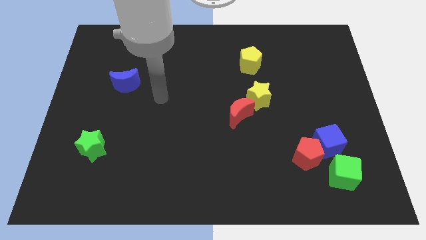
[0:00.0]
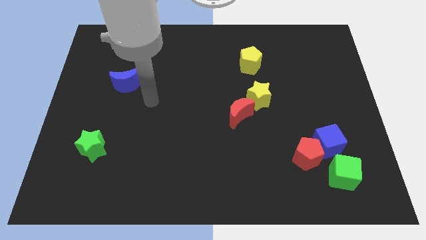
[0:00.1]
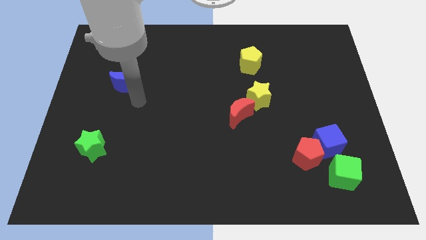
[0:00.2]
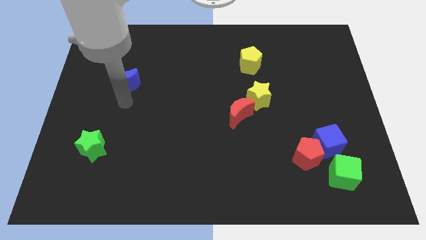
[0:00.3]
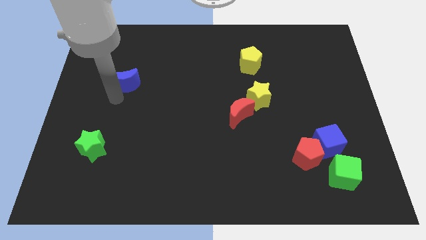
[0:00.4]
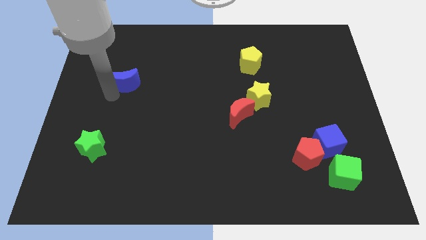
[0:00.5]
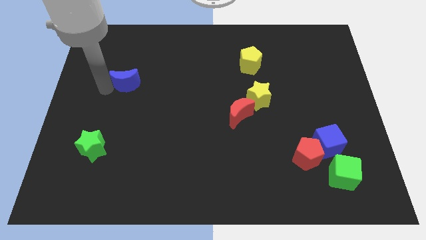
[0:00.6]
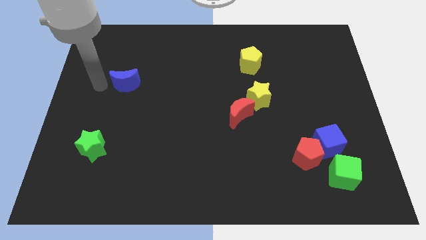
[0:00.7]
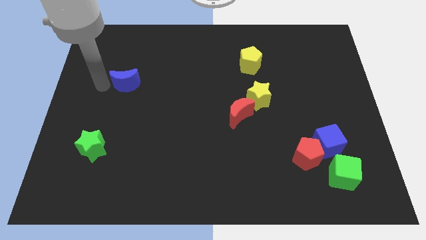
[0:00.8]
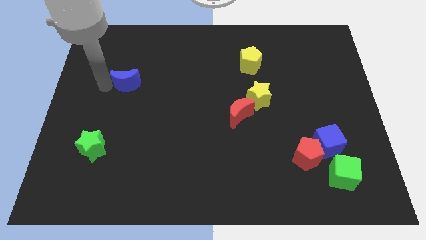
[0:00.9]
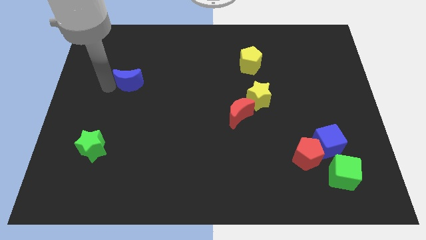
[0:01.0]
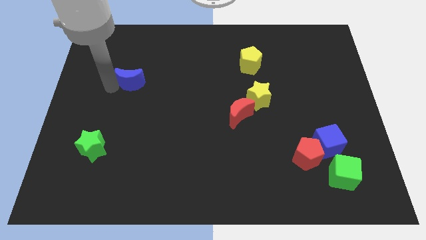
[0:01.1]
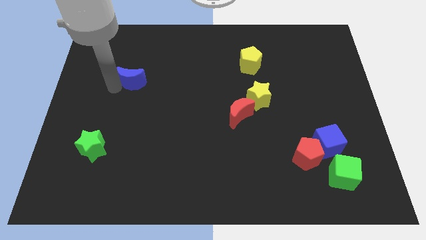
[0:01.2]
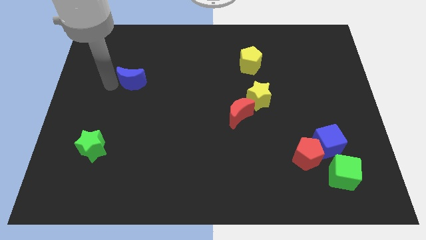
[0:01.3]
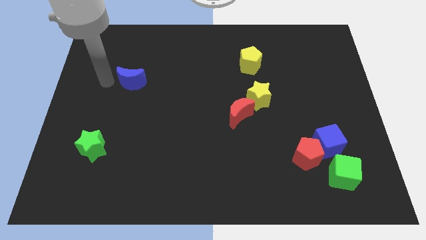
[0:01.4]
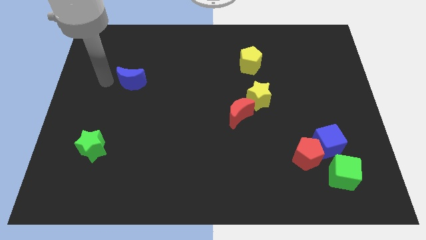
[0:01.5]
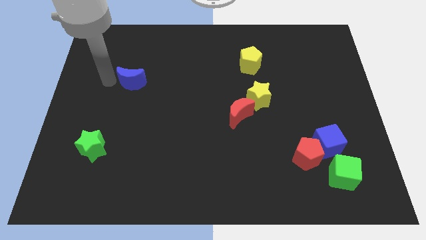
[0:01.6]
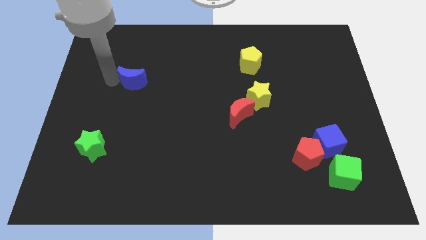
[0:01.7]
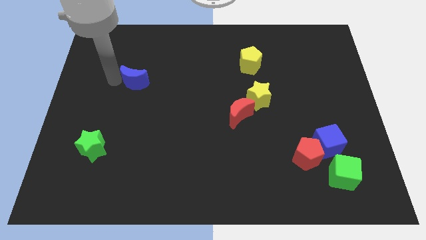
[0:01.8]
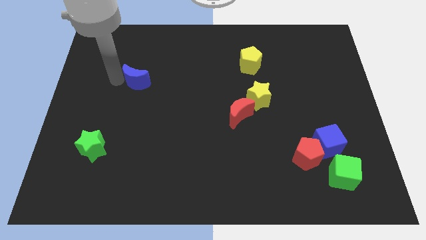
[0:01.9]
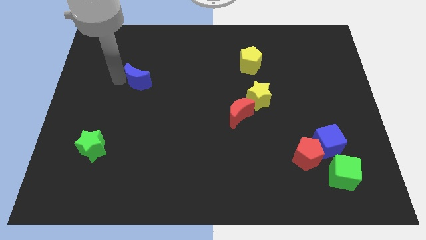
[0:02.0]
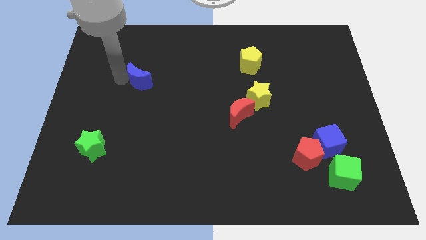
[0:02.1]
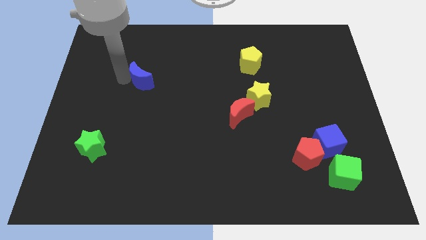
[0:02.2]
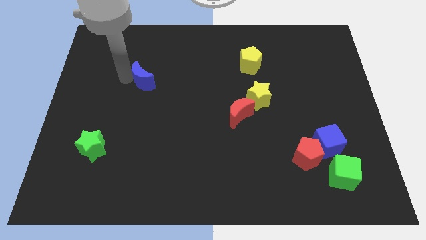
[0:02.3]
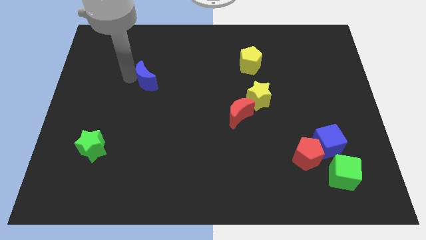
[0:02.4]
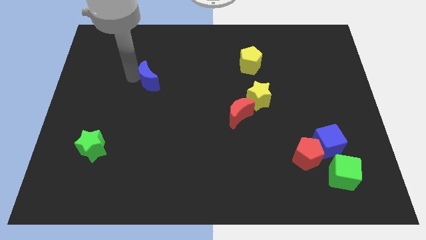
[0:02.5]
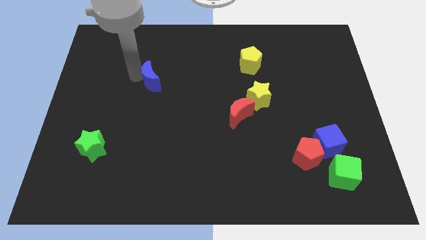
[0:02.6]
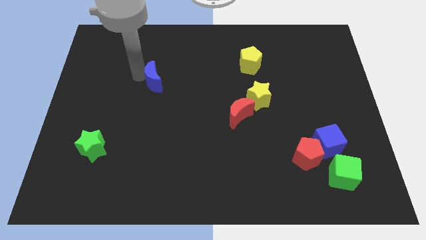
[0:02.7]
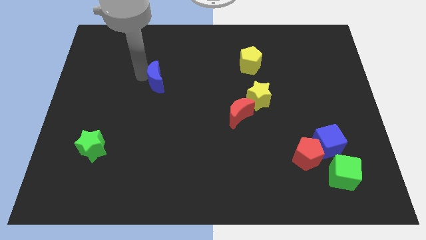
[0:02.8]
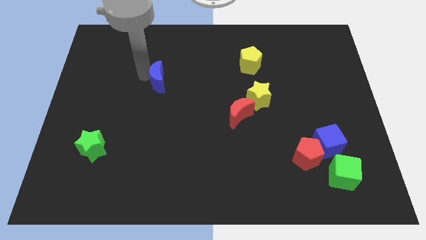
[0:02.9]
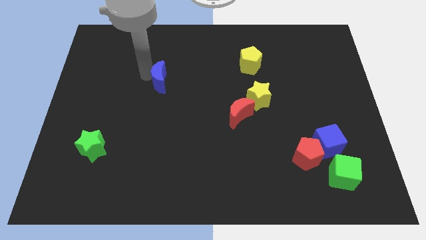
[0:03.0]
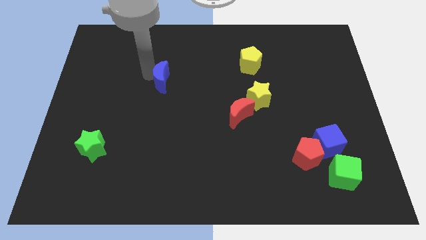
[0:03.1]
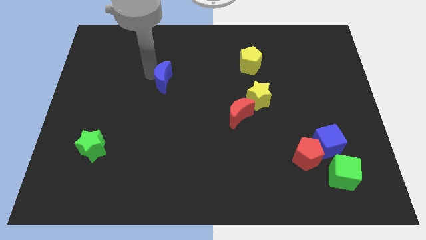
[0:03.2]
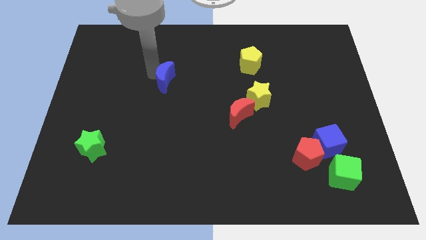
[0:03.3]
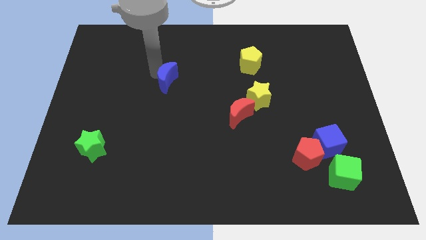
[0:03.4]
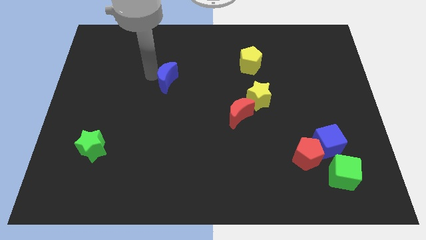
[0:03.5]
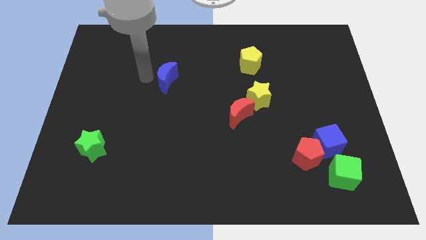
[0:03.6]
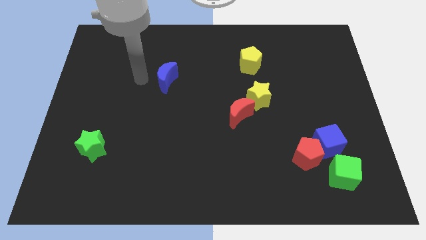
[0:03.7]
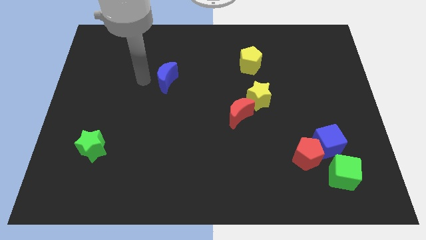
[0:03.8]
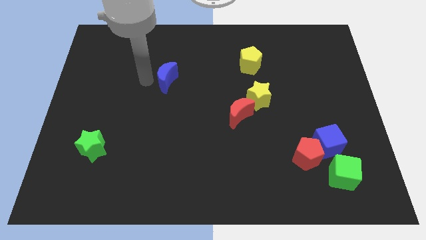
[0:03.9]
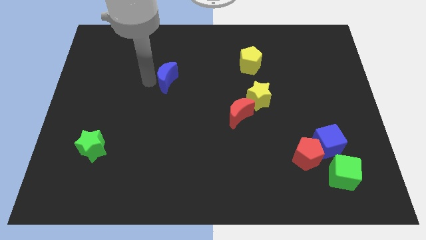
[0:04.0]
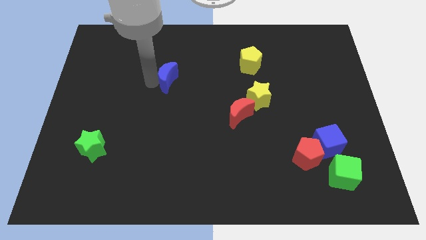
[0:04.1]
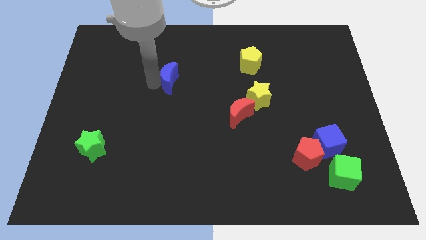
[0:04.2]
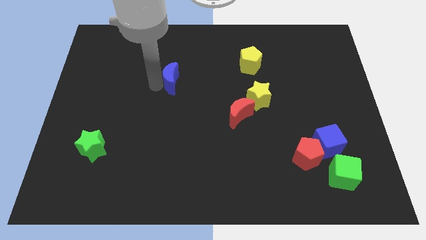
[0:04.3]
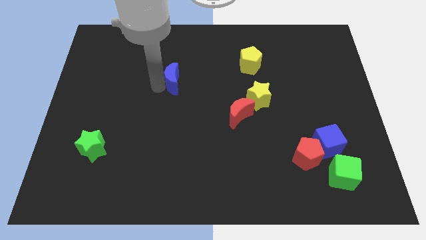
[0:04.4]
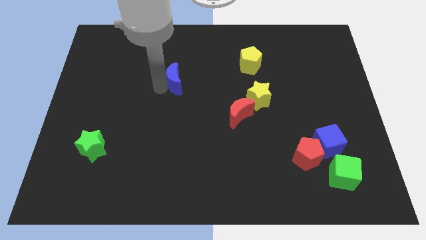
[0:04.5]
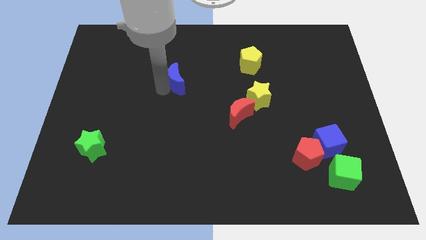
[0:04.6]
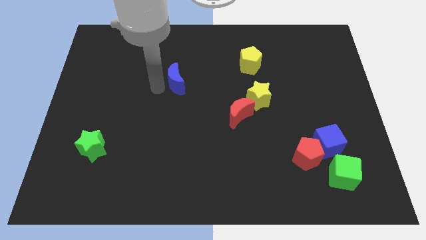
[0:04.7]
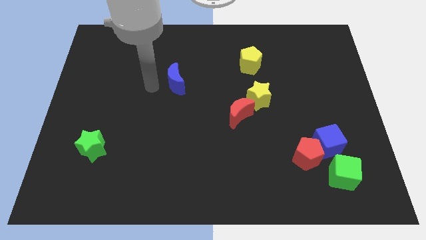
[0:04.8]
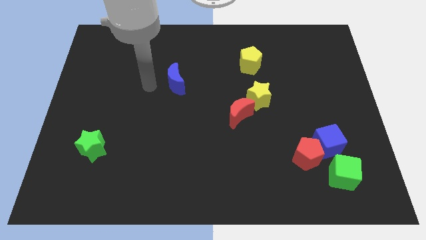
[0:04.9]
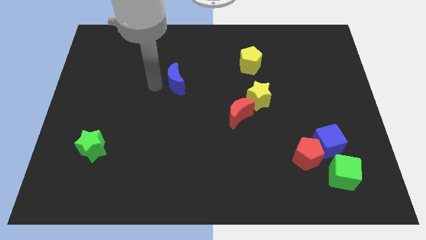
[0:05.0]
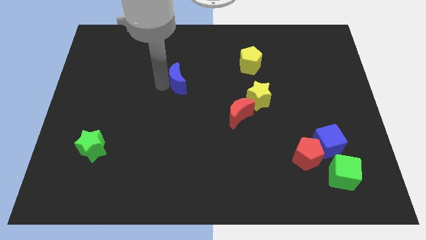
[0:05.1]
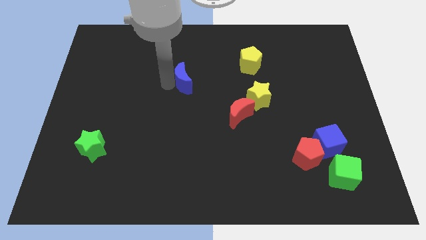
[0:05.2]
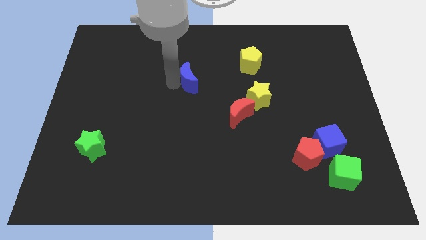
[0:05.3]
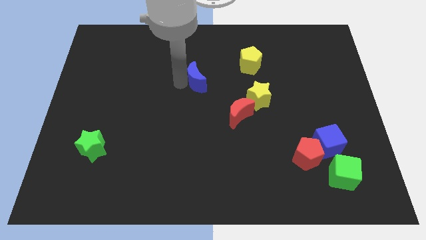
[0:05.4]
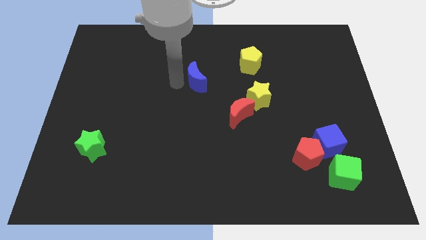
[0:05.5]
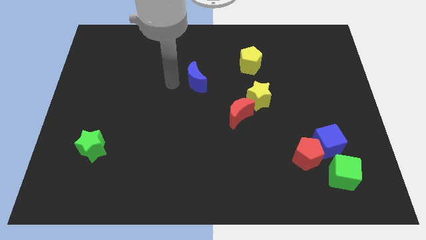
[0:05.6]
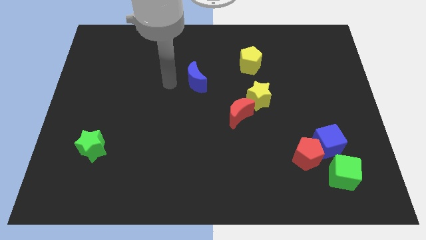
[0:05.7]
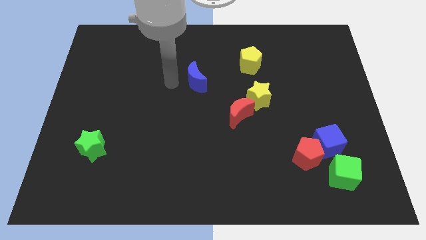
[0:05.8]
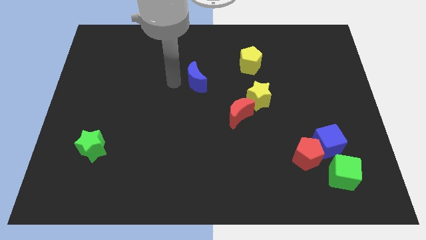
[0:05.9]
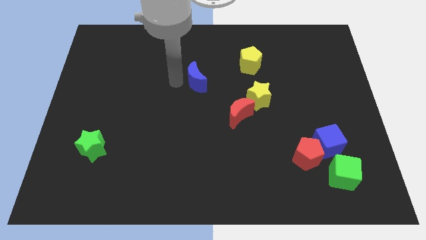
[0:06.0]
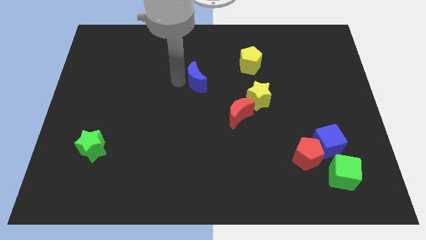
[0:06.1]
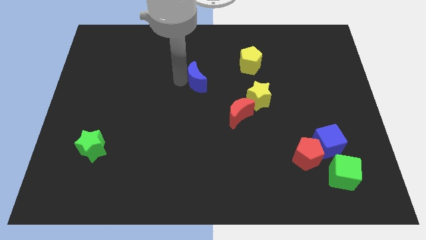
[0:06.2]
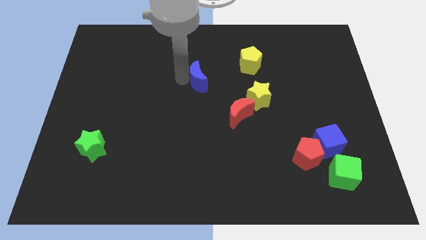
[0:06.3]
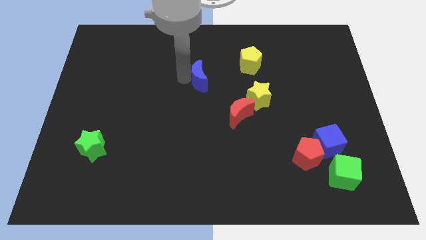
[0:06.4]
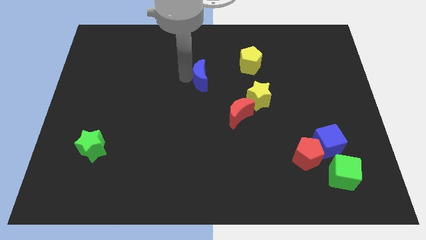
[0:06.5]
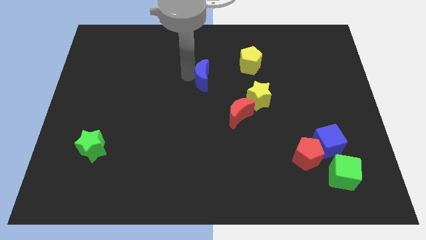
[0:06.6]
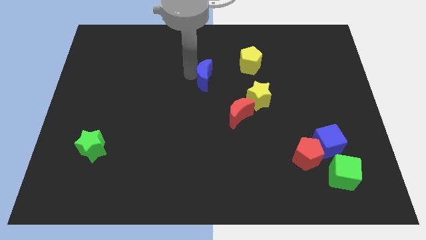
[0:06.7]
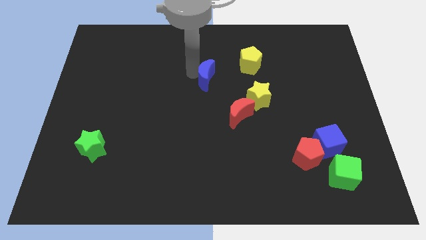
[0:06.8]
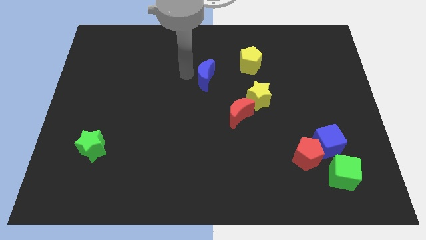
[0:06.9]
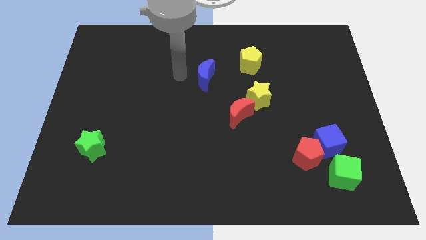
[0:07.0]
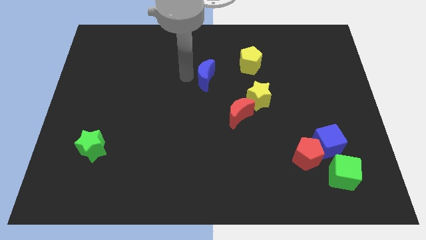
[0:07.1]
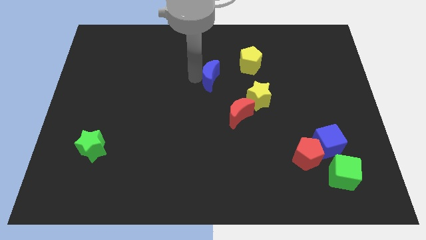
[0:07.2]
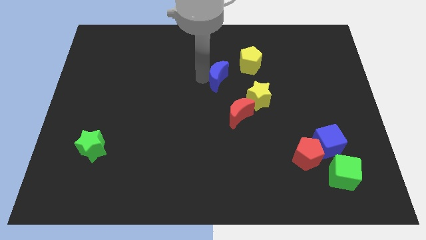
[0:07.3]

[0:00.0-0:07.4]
slide the blue moon to the top of the red moon

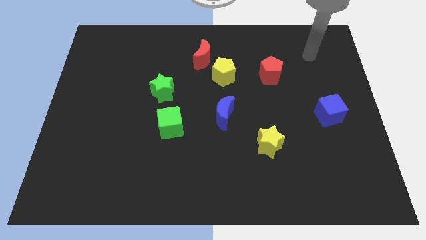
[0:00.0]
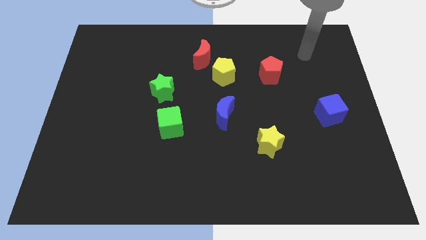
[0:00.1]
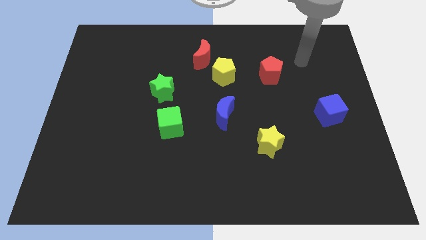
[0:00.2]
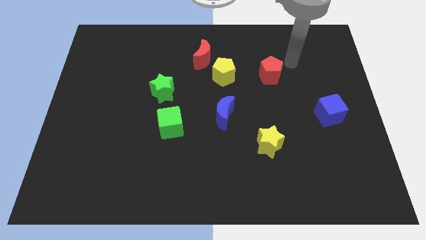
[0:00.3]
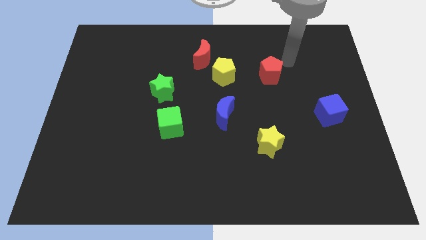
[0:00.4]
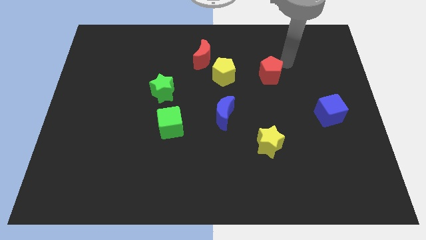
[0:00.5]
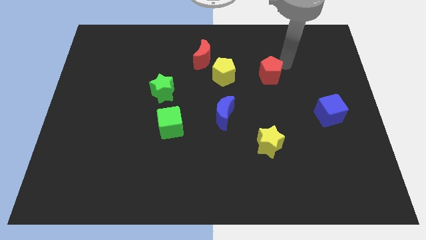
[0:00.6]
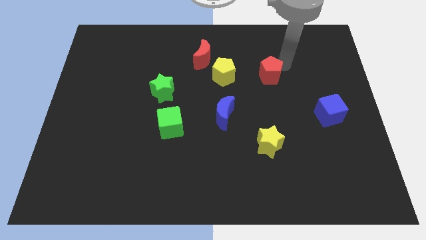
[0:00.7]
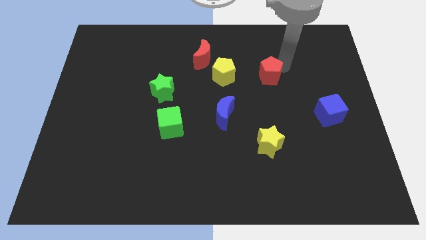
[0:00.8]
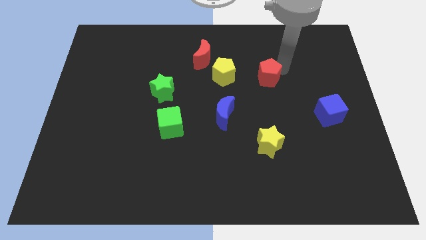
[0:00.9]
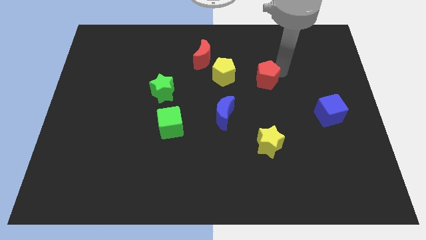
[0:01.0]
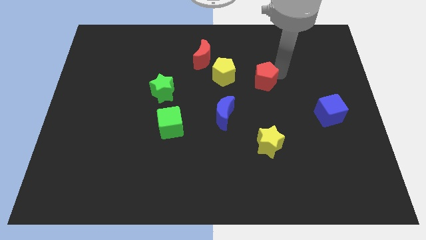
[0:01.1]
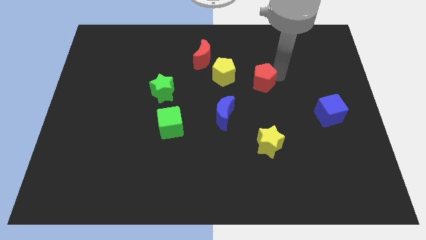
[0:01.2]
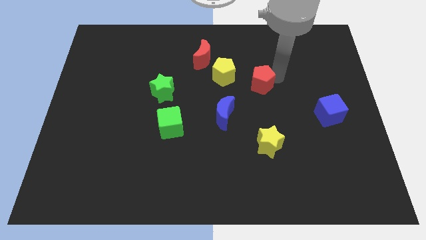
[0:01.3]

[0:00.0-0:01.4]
put the red pentagon to the bottom right side of the yellow pentagon
